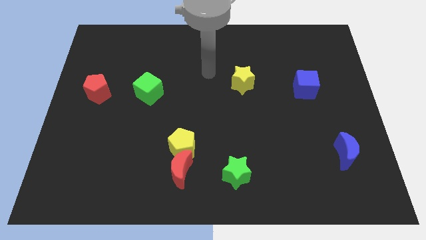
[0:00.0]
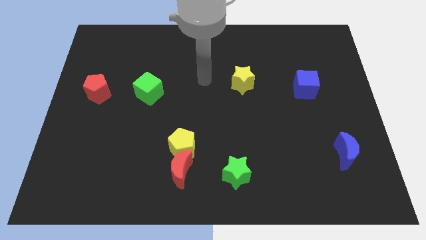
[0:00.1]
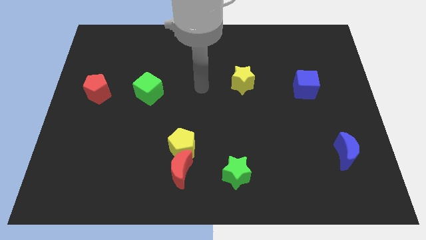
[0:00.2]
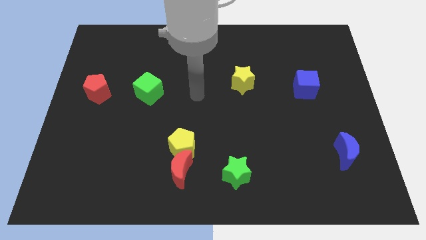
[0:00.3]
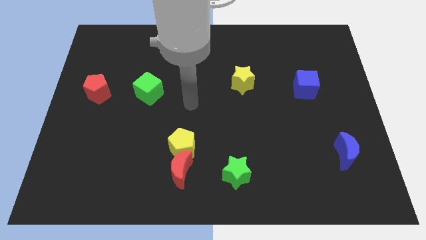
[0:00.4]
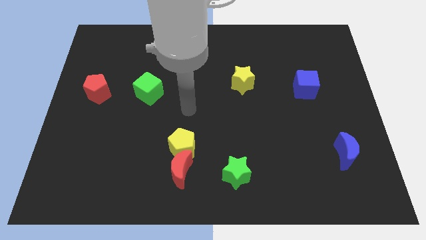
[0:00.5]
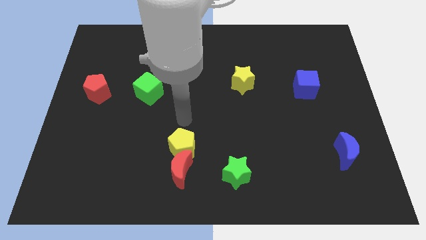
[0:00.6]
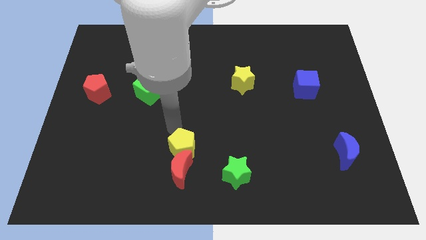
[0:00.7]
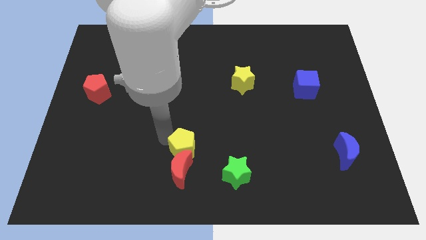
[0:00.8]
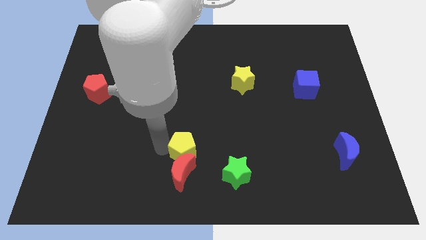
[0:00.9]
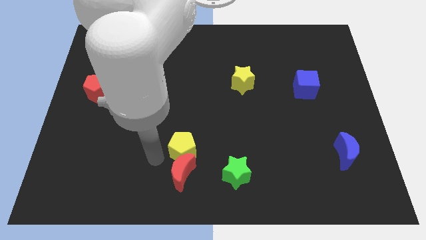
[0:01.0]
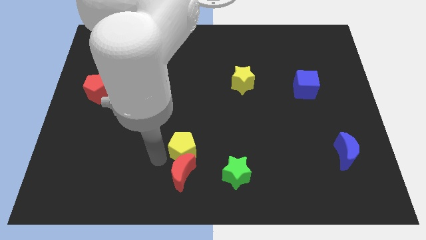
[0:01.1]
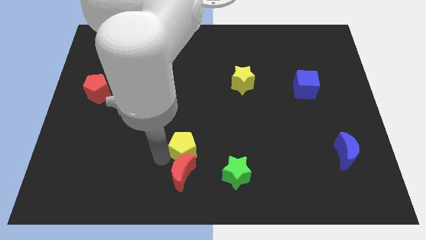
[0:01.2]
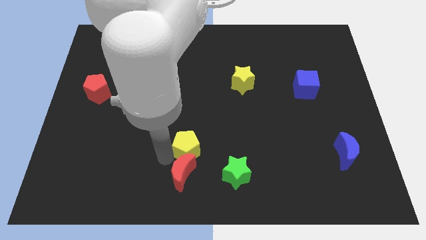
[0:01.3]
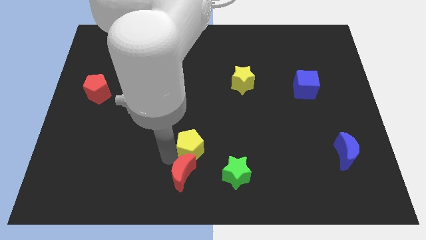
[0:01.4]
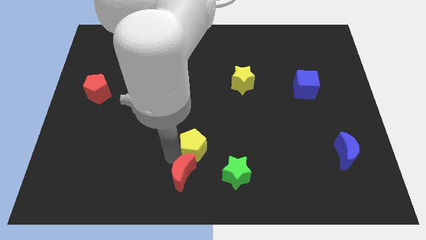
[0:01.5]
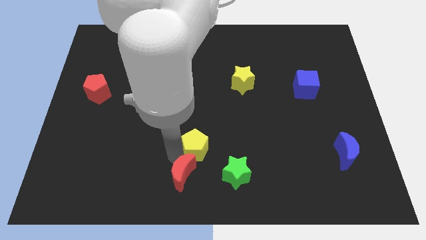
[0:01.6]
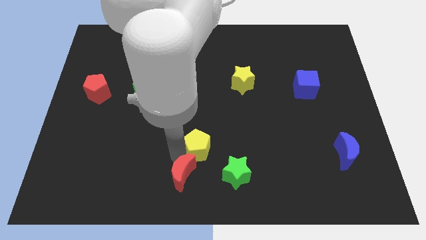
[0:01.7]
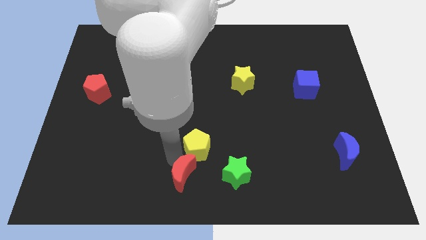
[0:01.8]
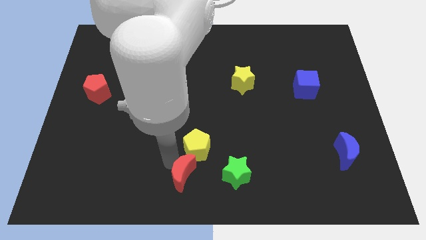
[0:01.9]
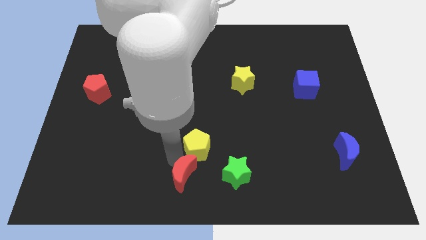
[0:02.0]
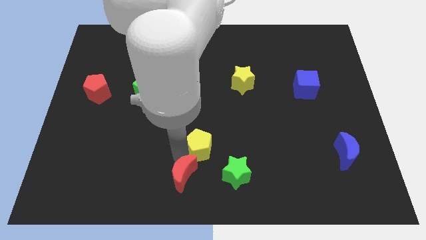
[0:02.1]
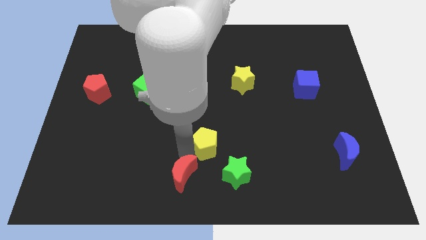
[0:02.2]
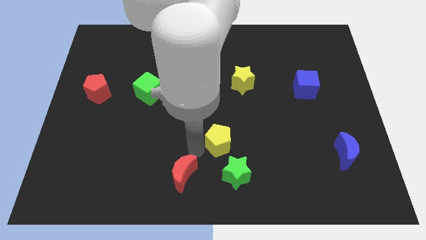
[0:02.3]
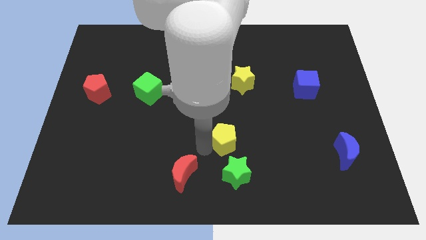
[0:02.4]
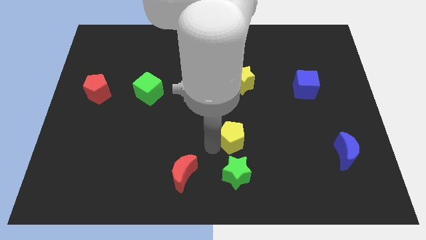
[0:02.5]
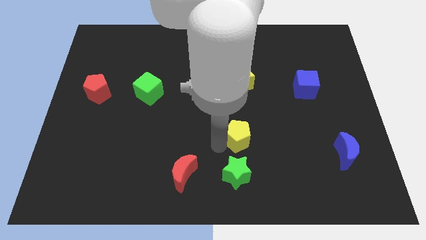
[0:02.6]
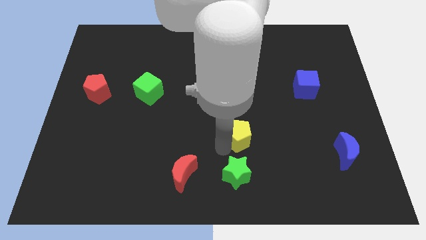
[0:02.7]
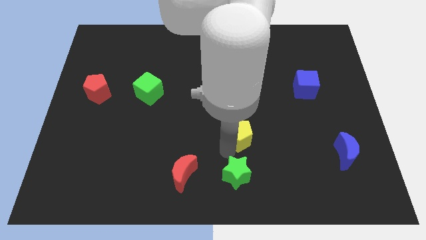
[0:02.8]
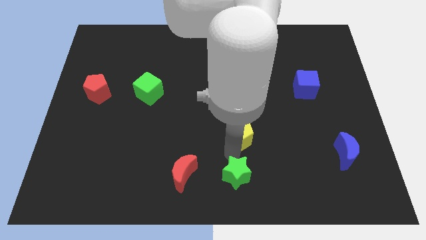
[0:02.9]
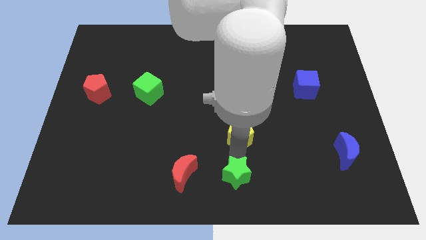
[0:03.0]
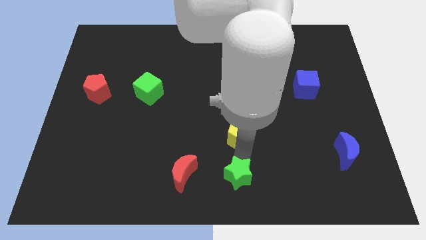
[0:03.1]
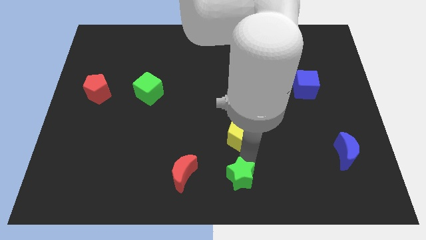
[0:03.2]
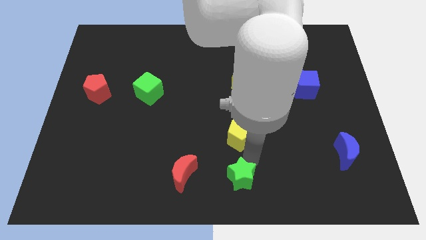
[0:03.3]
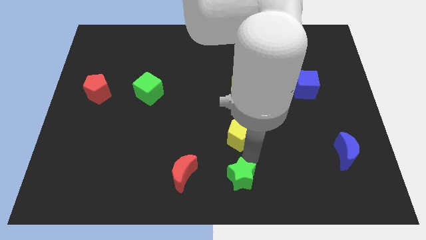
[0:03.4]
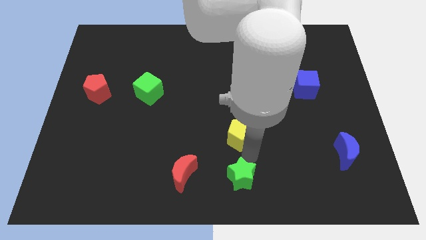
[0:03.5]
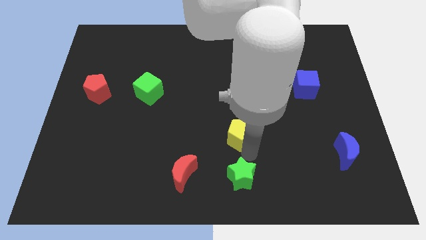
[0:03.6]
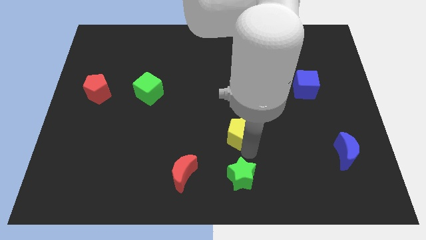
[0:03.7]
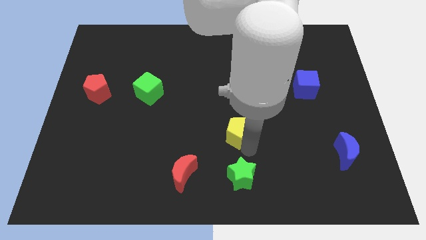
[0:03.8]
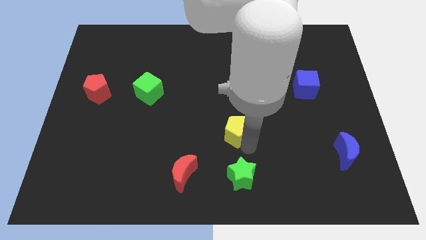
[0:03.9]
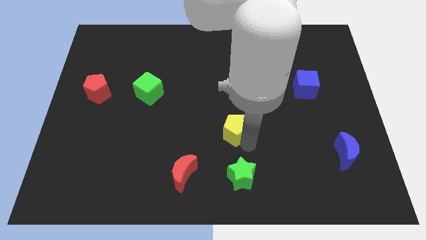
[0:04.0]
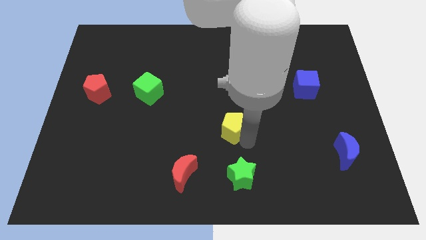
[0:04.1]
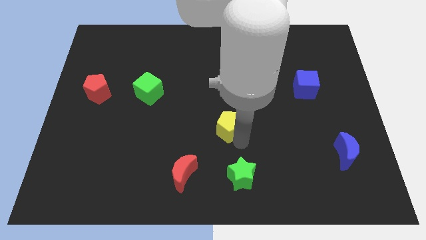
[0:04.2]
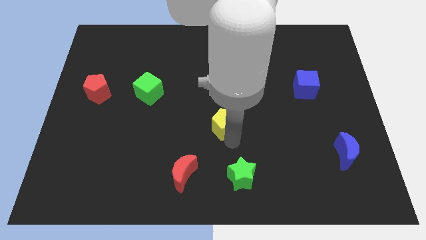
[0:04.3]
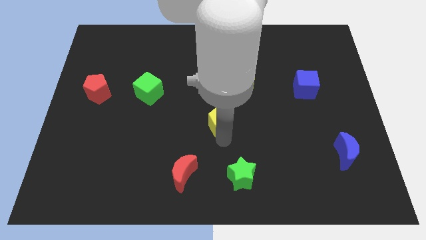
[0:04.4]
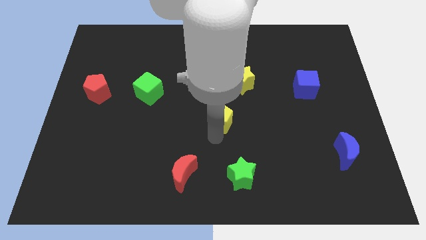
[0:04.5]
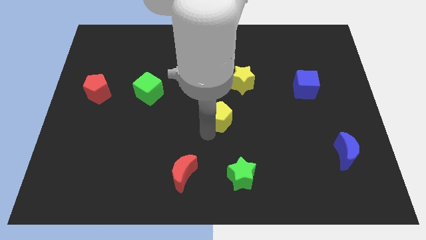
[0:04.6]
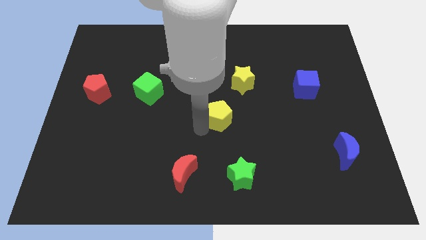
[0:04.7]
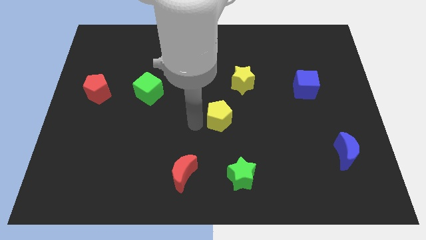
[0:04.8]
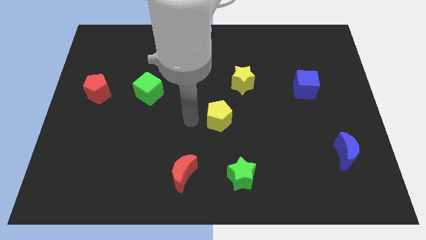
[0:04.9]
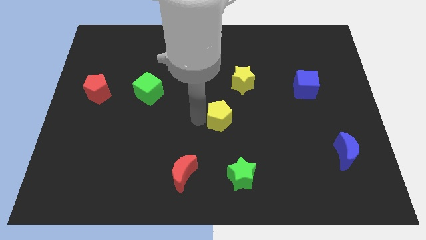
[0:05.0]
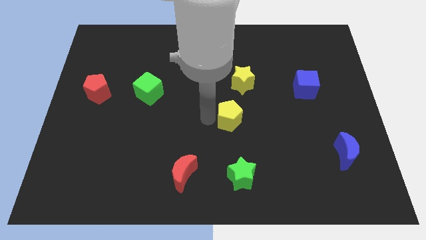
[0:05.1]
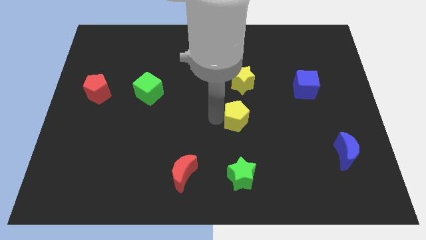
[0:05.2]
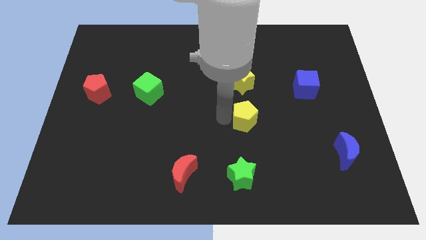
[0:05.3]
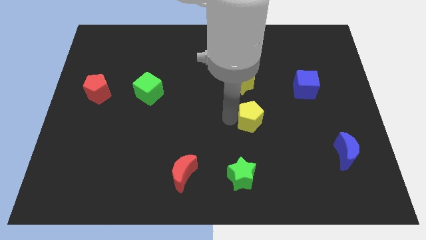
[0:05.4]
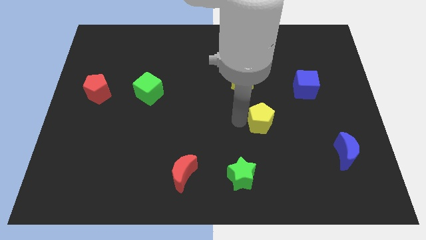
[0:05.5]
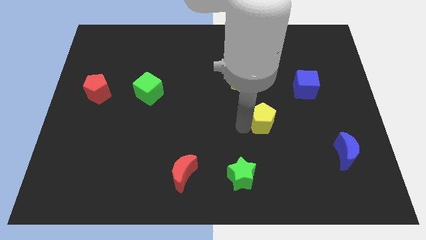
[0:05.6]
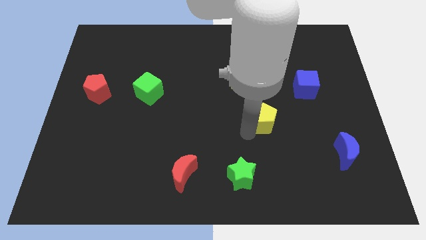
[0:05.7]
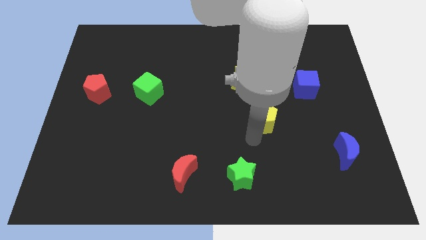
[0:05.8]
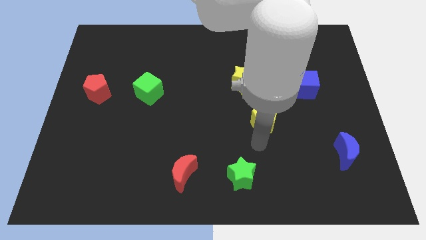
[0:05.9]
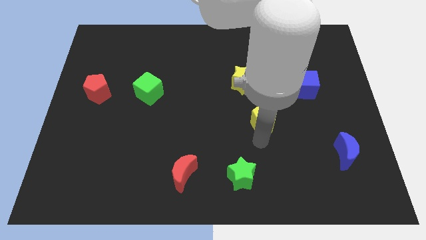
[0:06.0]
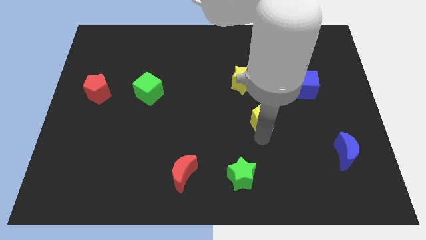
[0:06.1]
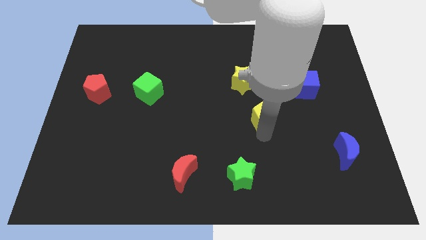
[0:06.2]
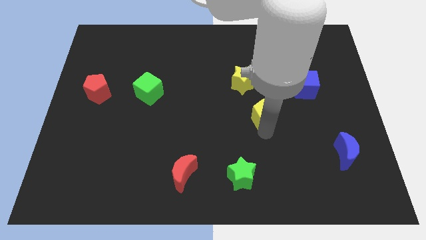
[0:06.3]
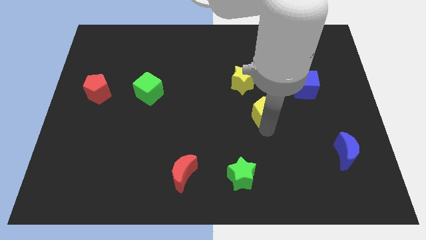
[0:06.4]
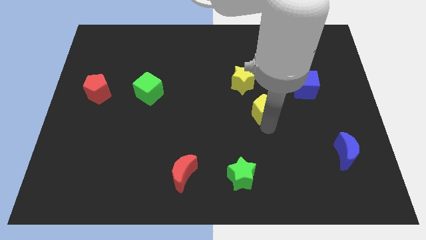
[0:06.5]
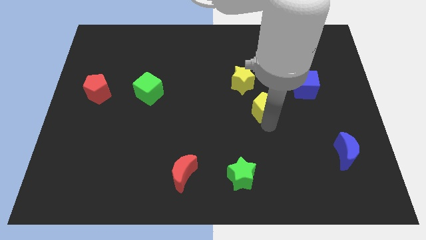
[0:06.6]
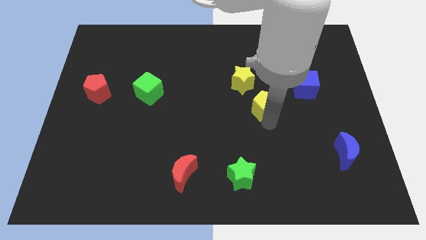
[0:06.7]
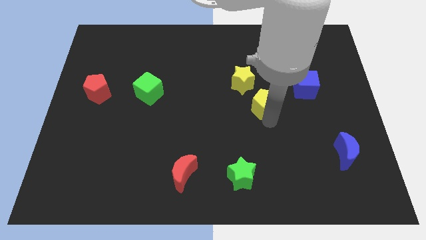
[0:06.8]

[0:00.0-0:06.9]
slide the yellow pentagon upwards and right

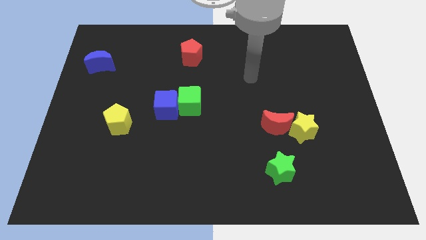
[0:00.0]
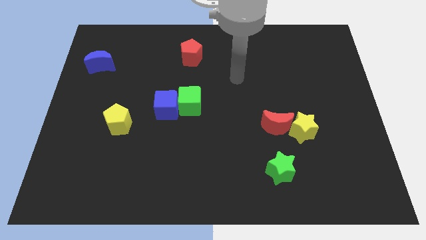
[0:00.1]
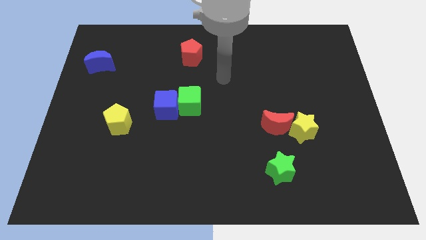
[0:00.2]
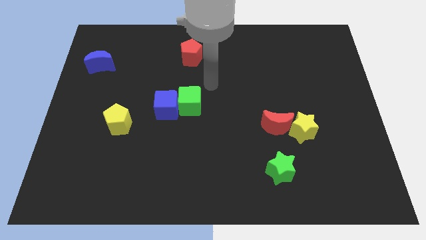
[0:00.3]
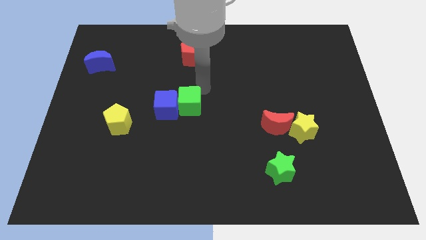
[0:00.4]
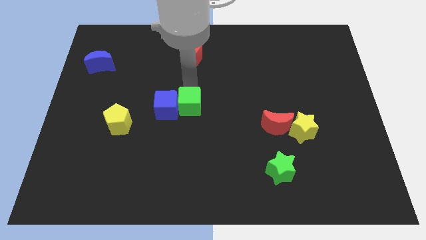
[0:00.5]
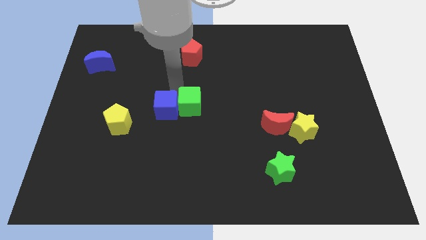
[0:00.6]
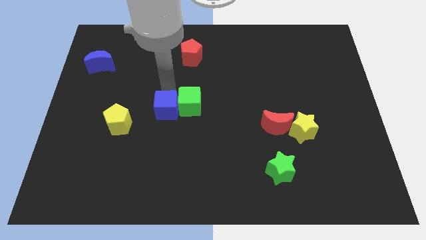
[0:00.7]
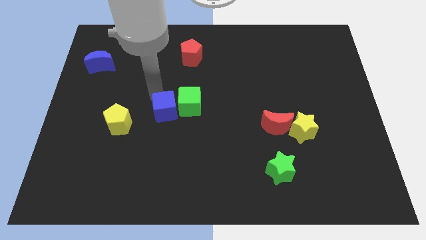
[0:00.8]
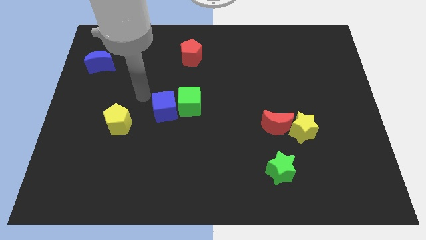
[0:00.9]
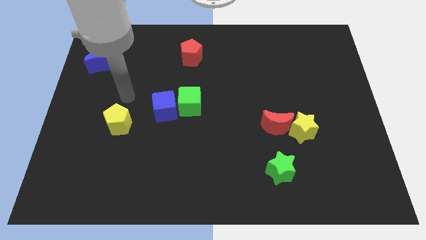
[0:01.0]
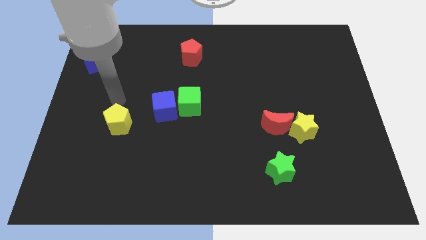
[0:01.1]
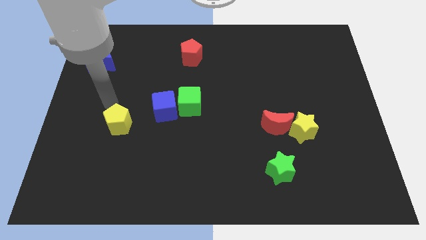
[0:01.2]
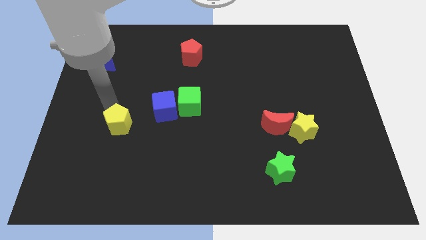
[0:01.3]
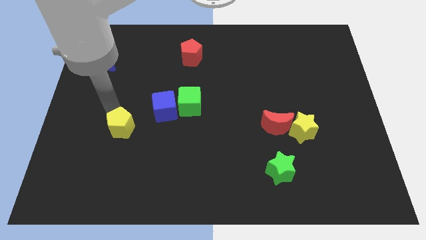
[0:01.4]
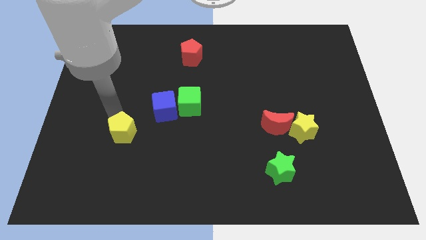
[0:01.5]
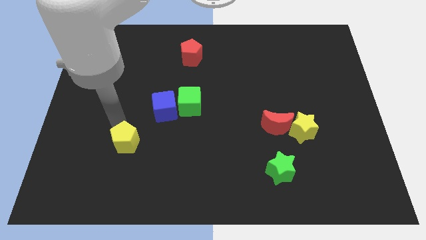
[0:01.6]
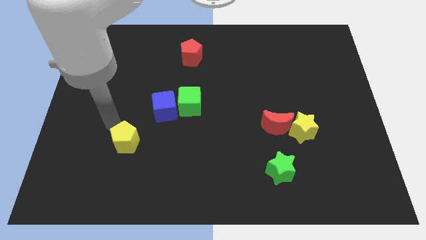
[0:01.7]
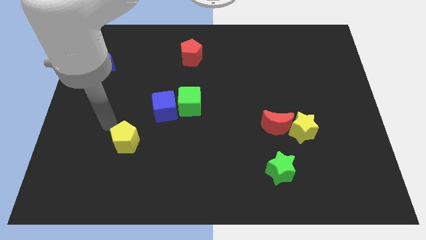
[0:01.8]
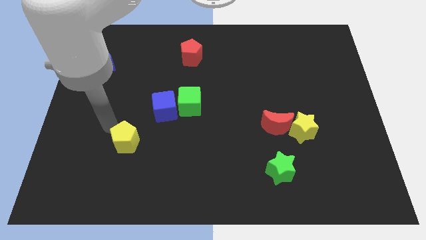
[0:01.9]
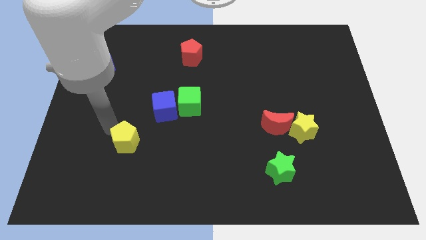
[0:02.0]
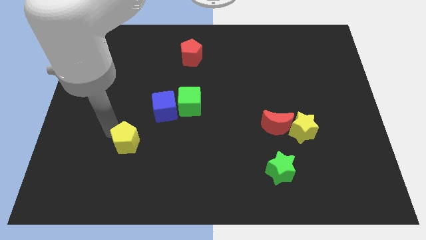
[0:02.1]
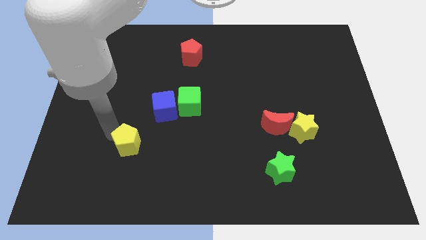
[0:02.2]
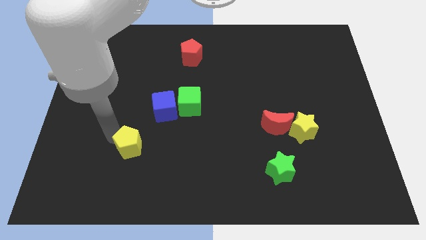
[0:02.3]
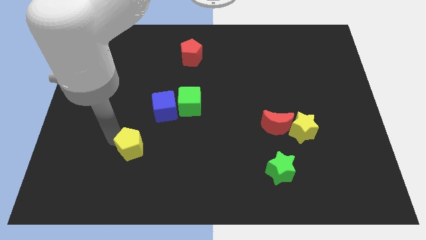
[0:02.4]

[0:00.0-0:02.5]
move the yellow pentagon downwards and to the right diagonally slightly
